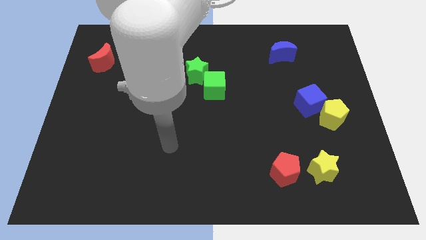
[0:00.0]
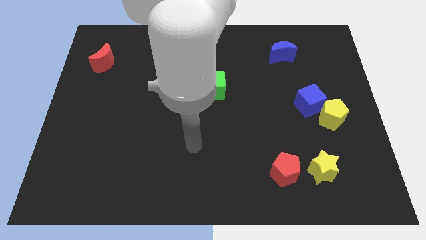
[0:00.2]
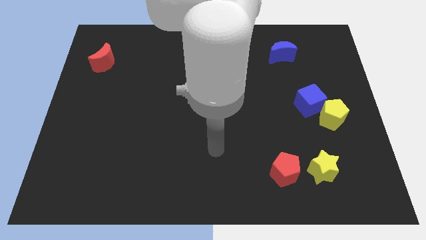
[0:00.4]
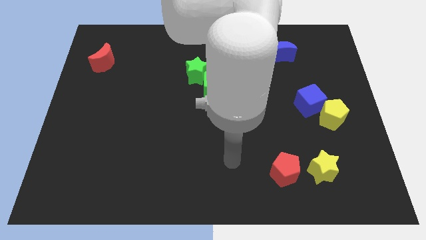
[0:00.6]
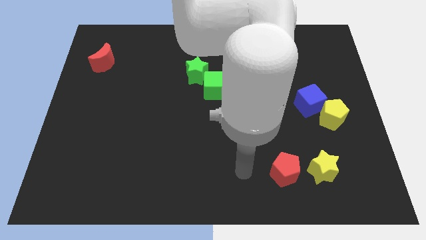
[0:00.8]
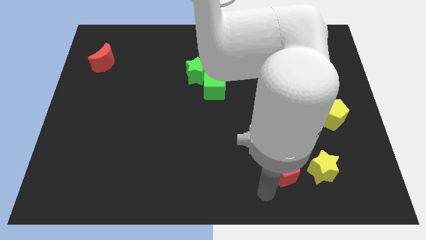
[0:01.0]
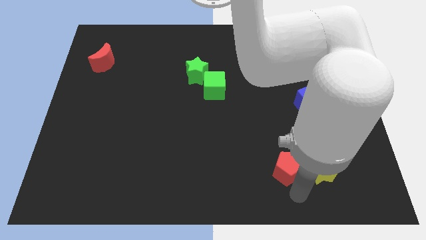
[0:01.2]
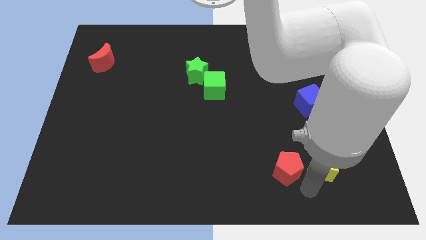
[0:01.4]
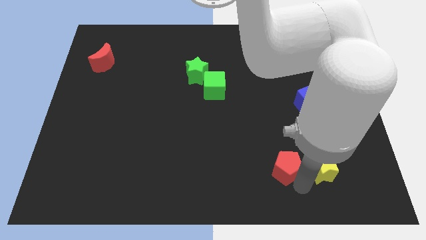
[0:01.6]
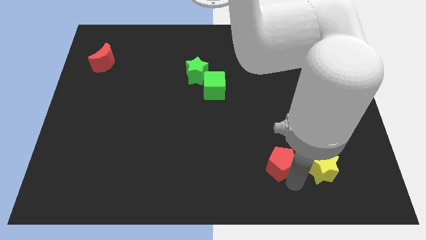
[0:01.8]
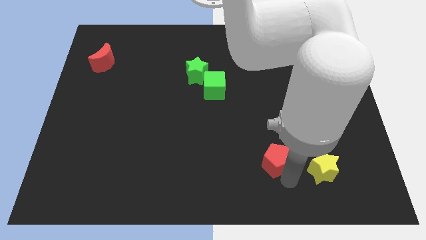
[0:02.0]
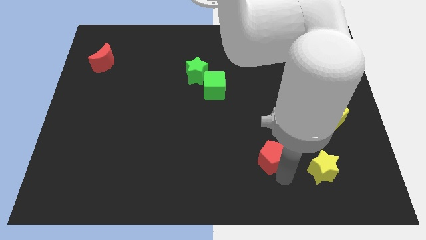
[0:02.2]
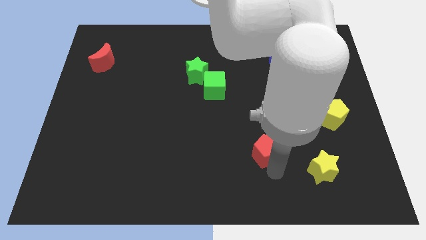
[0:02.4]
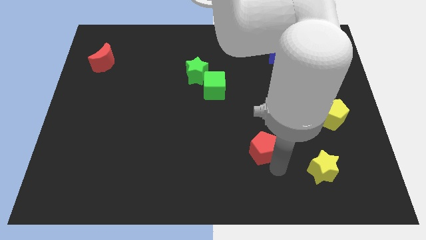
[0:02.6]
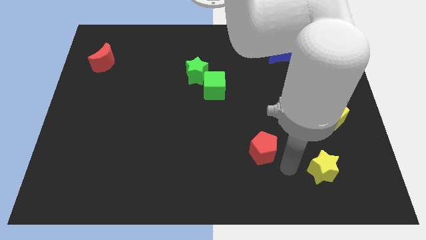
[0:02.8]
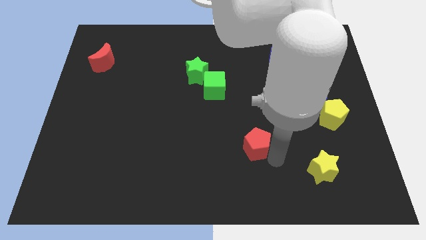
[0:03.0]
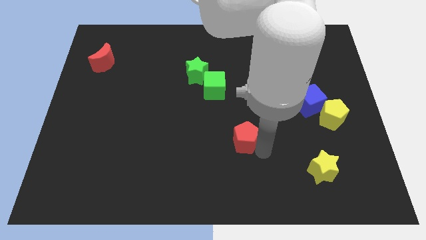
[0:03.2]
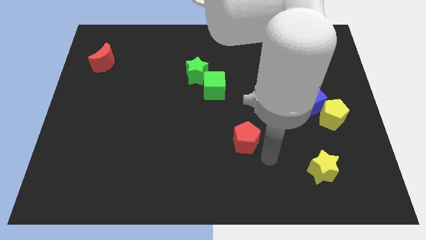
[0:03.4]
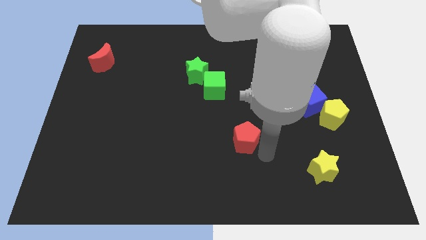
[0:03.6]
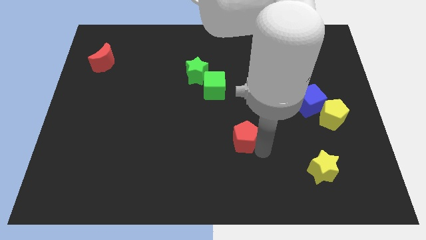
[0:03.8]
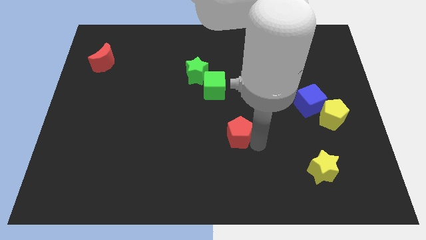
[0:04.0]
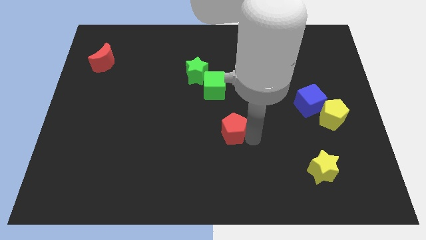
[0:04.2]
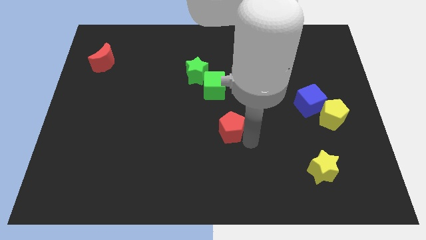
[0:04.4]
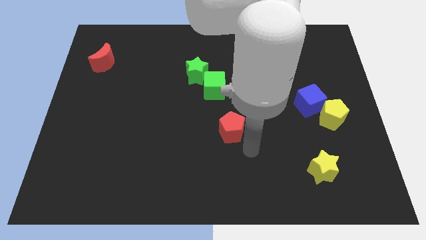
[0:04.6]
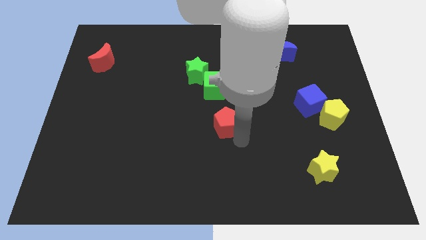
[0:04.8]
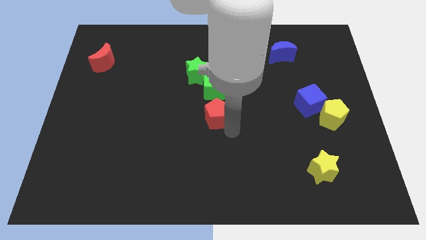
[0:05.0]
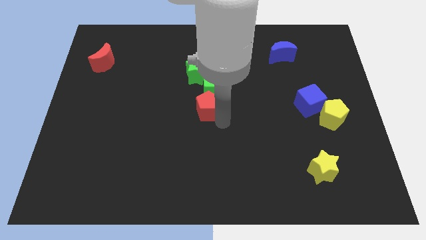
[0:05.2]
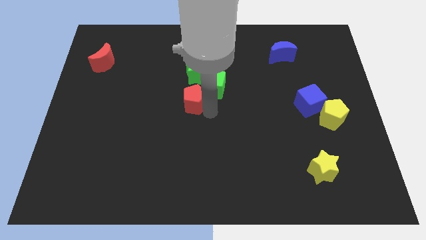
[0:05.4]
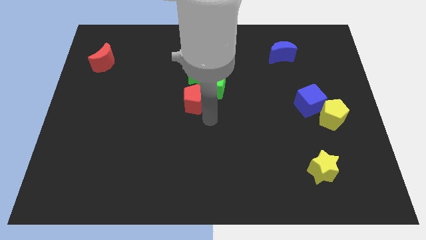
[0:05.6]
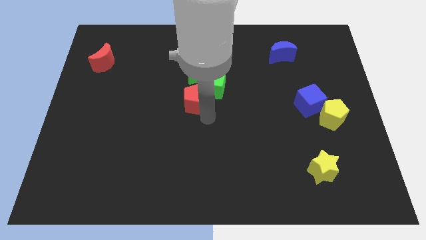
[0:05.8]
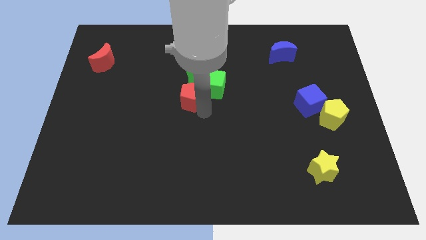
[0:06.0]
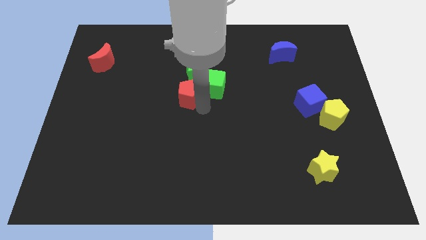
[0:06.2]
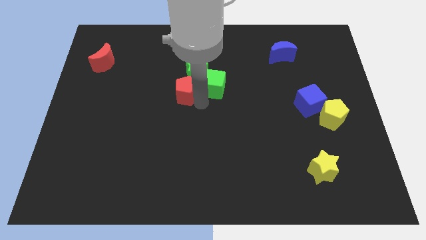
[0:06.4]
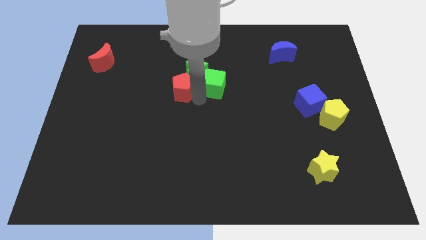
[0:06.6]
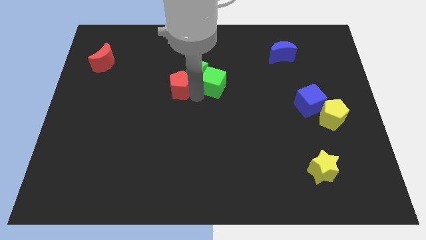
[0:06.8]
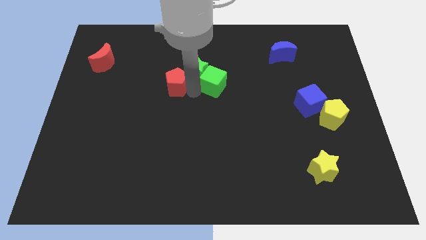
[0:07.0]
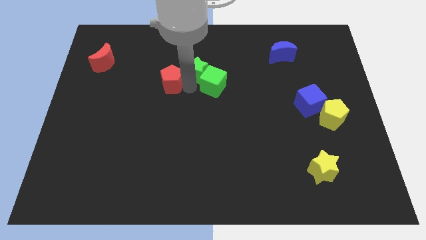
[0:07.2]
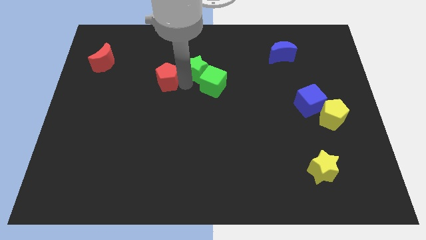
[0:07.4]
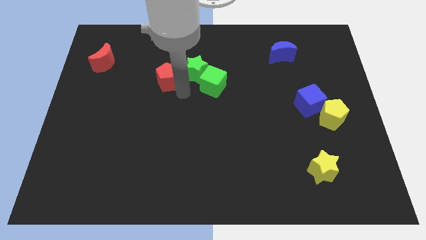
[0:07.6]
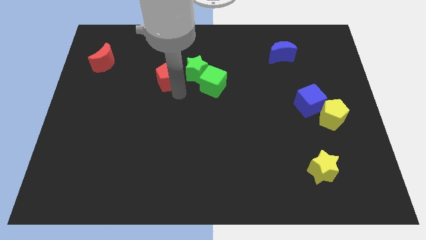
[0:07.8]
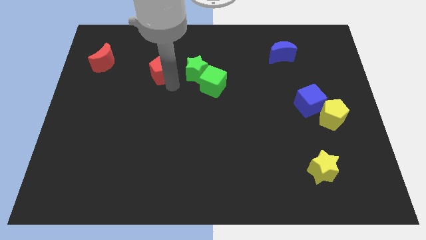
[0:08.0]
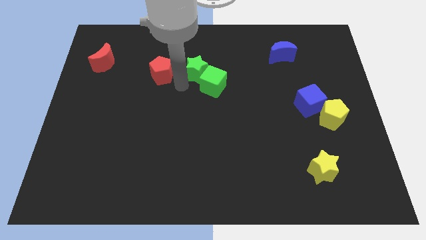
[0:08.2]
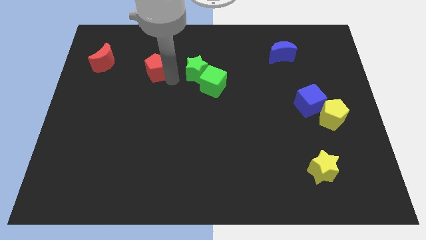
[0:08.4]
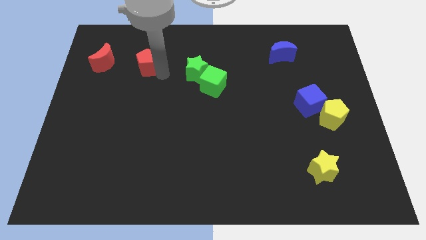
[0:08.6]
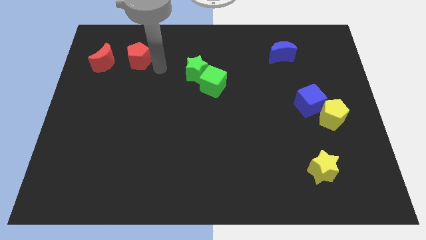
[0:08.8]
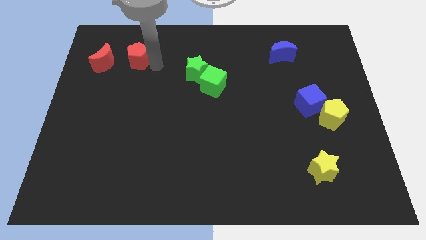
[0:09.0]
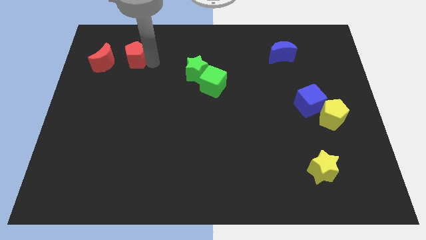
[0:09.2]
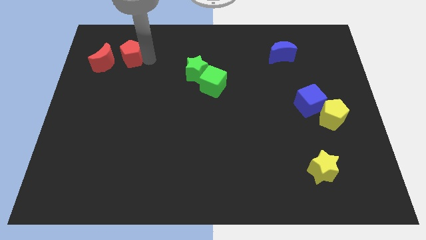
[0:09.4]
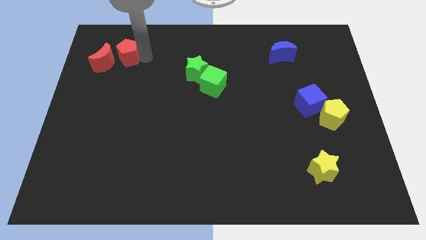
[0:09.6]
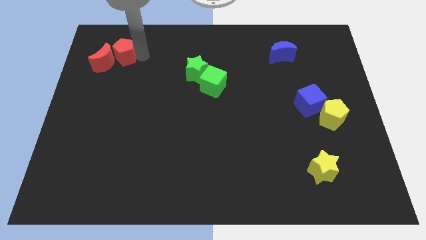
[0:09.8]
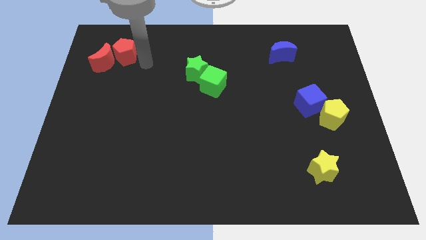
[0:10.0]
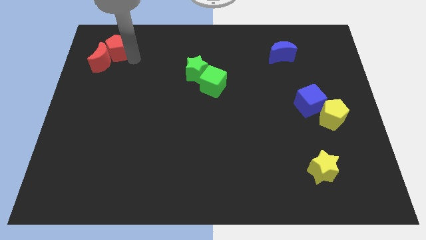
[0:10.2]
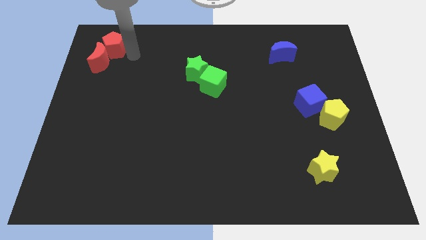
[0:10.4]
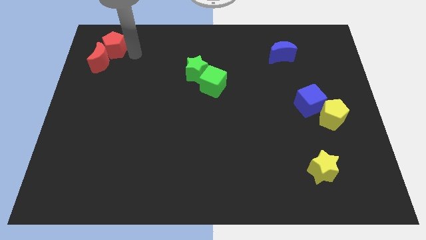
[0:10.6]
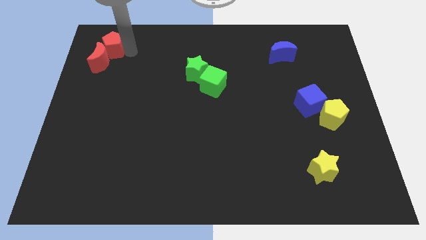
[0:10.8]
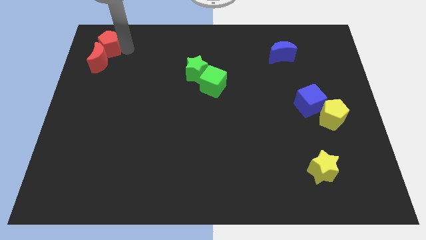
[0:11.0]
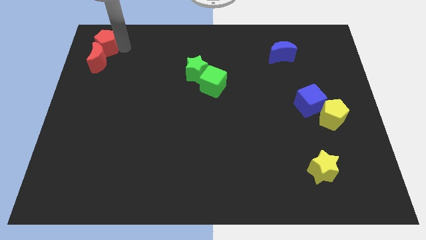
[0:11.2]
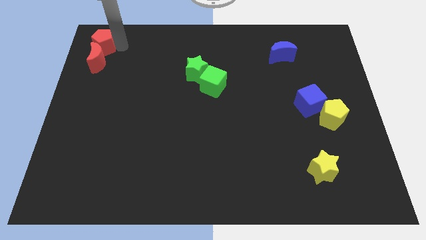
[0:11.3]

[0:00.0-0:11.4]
slide the red pentagon to the top left corner

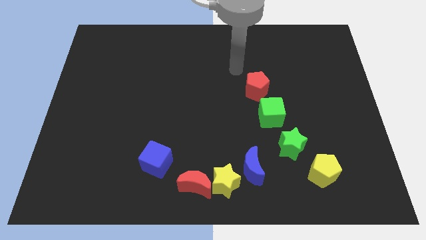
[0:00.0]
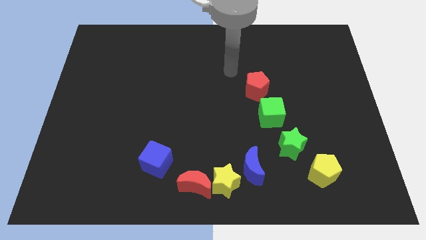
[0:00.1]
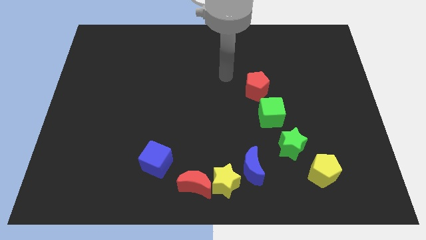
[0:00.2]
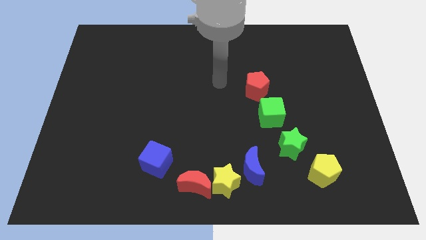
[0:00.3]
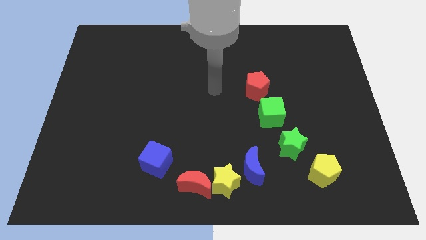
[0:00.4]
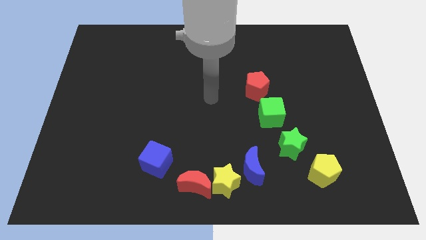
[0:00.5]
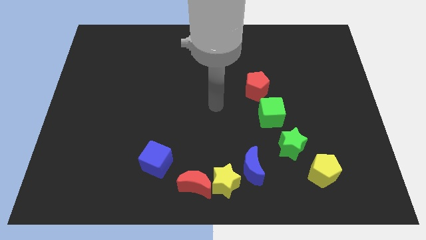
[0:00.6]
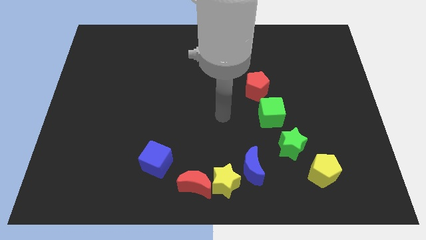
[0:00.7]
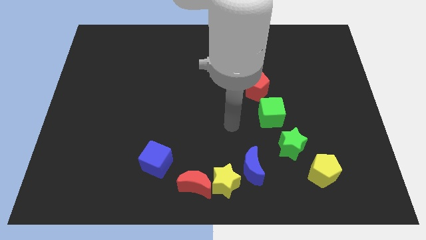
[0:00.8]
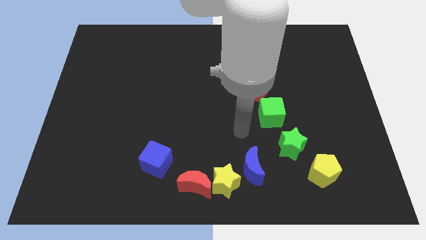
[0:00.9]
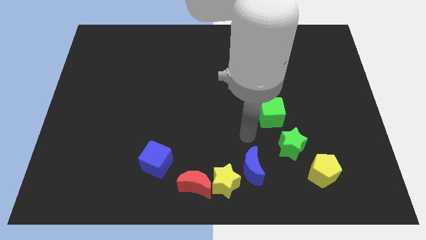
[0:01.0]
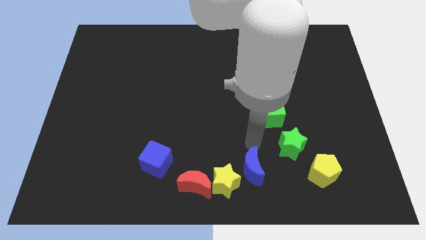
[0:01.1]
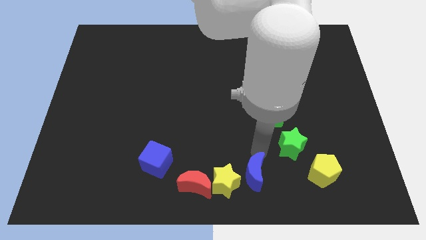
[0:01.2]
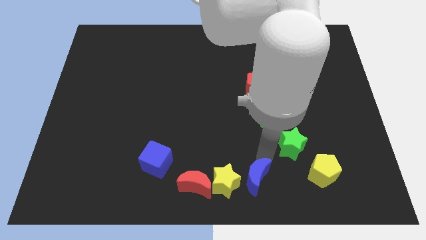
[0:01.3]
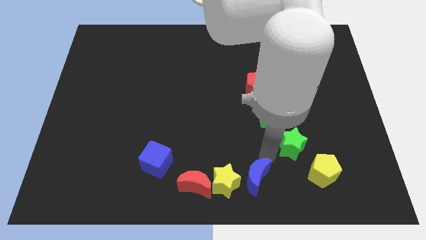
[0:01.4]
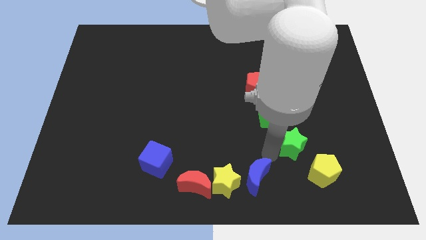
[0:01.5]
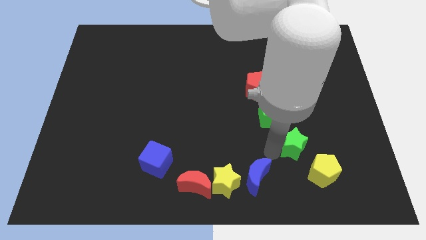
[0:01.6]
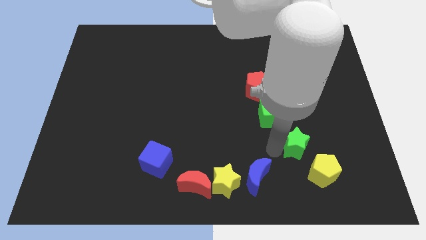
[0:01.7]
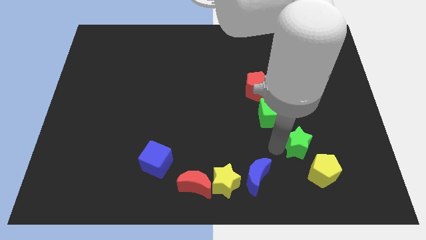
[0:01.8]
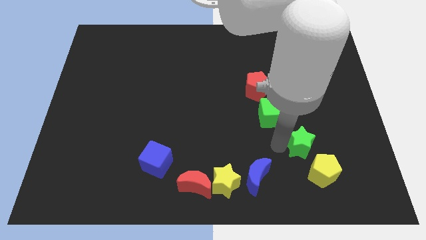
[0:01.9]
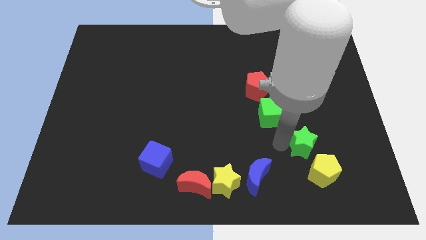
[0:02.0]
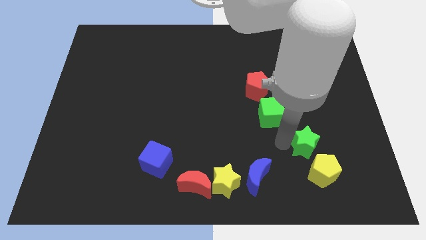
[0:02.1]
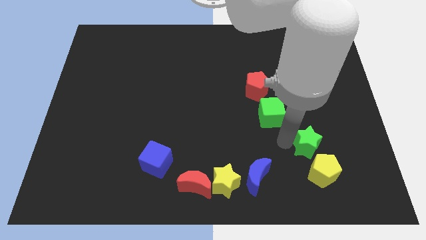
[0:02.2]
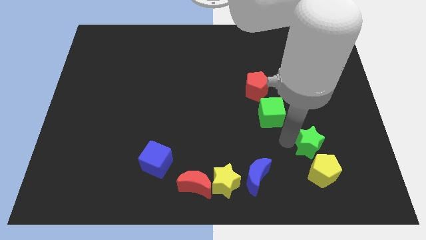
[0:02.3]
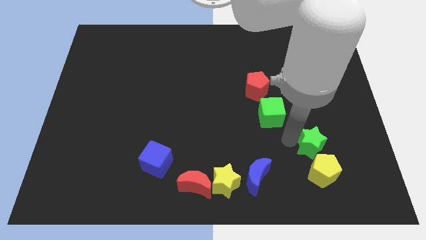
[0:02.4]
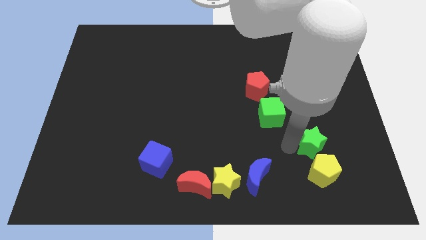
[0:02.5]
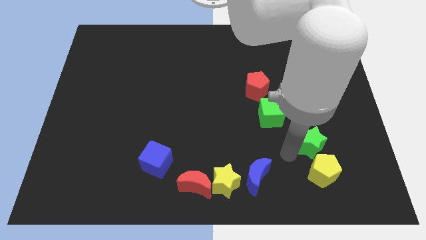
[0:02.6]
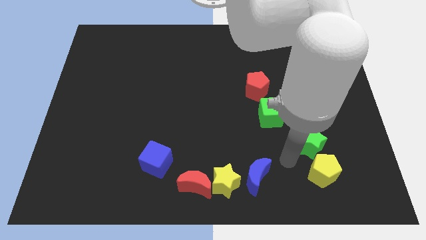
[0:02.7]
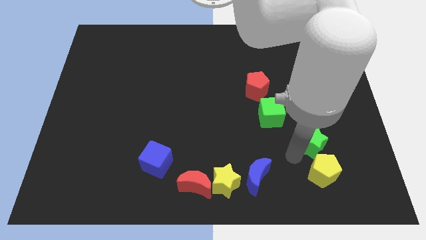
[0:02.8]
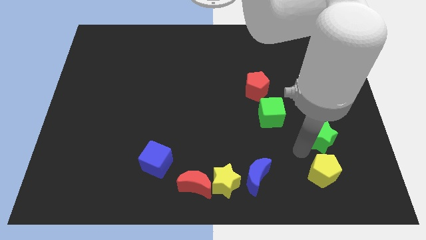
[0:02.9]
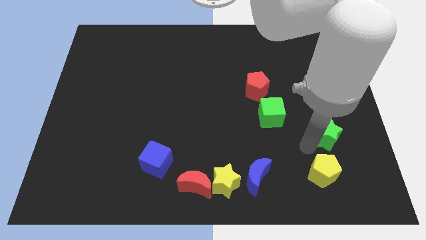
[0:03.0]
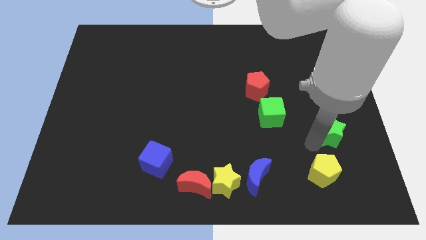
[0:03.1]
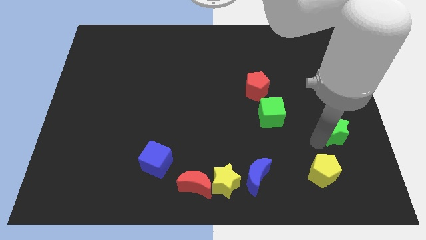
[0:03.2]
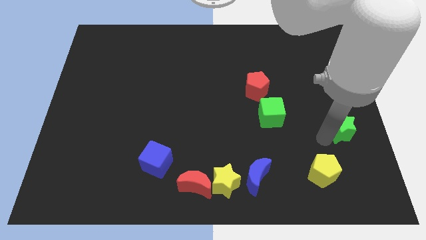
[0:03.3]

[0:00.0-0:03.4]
slide the green star to the right side of the board
